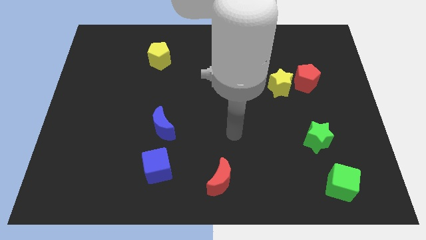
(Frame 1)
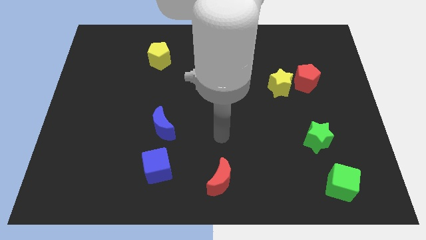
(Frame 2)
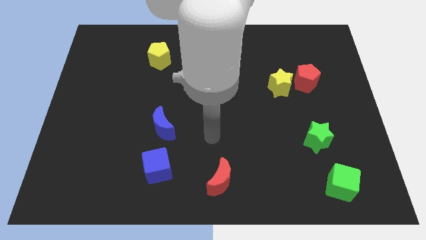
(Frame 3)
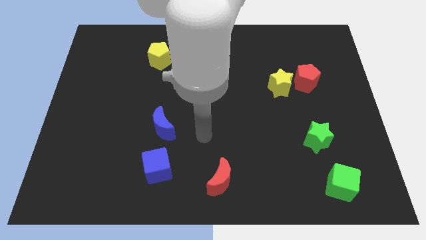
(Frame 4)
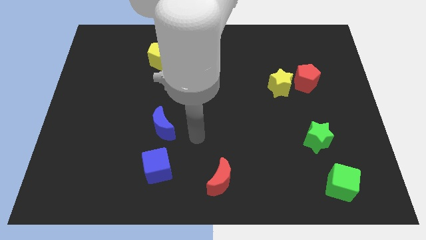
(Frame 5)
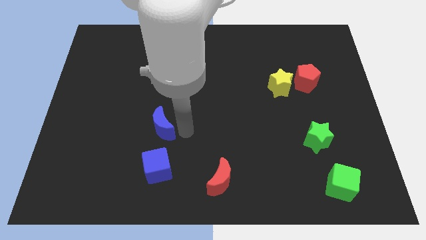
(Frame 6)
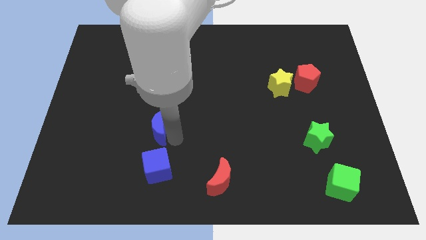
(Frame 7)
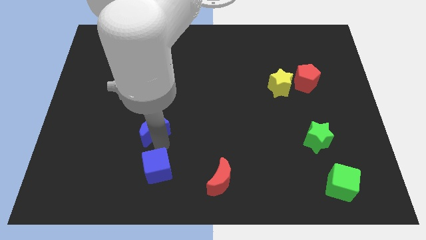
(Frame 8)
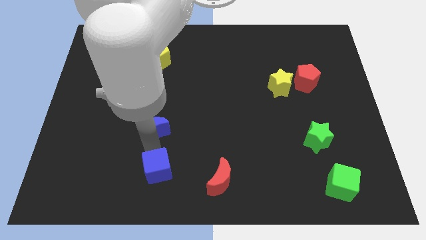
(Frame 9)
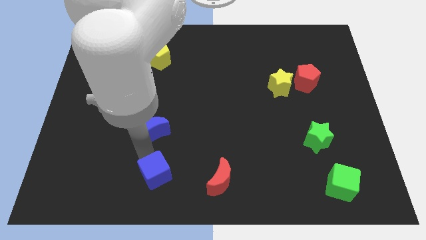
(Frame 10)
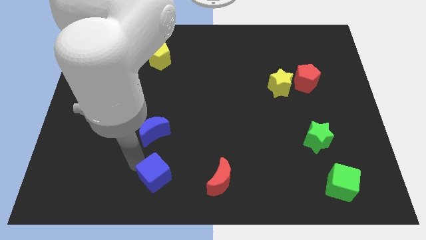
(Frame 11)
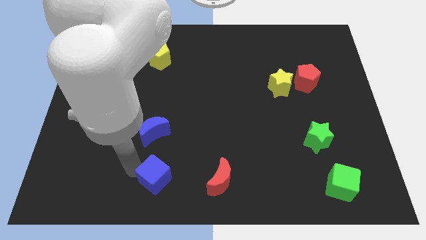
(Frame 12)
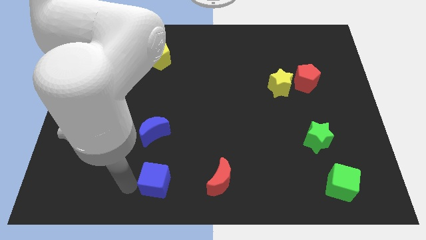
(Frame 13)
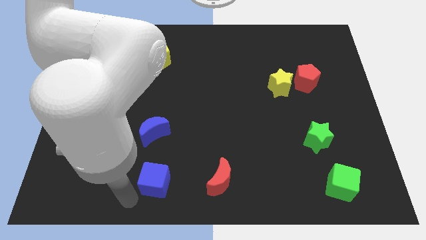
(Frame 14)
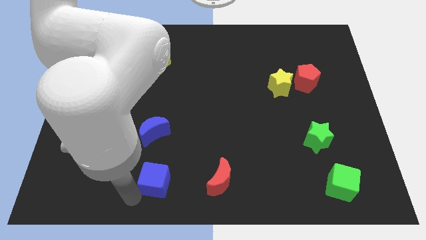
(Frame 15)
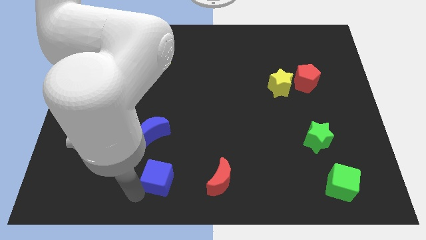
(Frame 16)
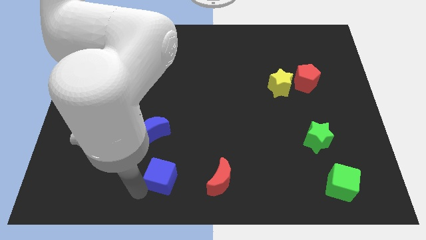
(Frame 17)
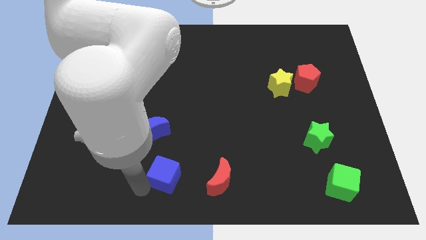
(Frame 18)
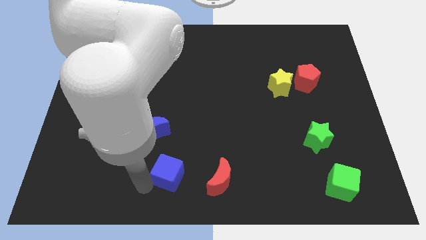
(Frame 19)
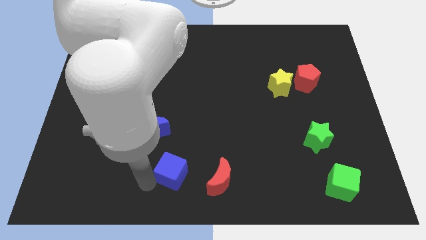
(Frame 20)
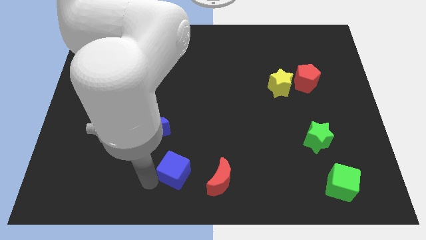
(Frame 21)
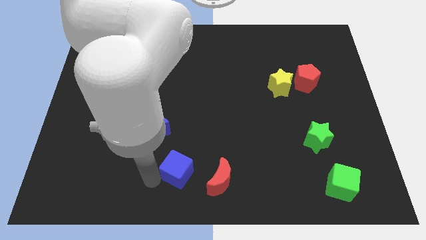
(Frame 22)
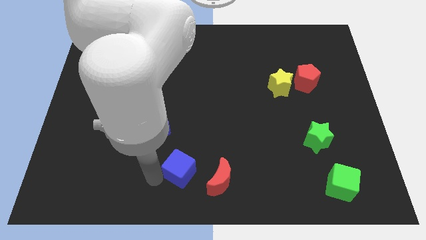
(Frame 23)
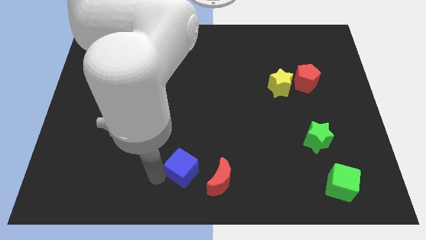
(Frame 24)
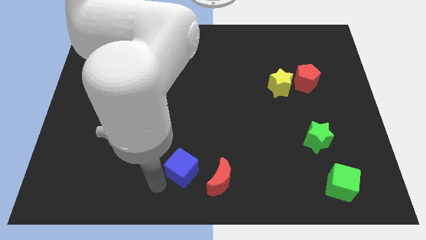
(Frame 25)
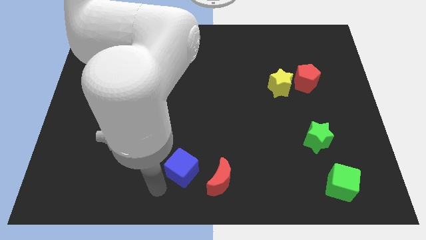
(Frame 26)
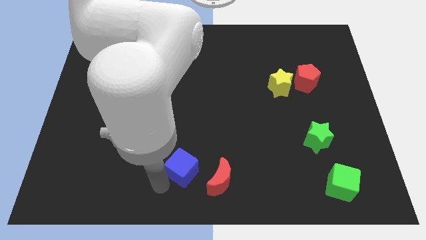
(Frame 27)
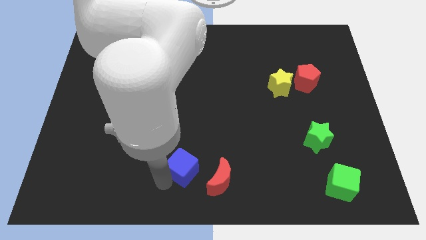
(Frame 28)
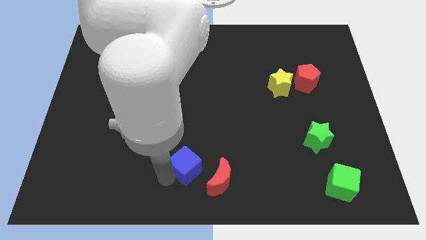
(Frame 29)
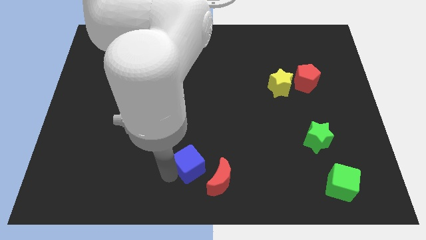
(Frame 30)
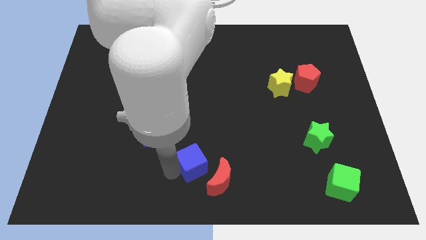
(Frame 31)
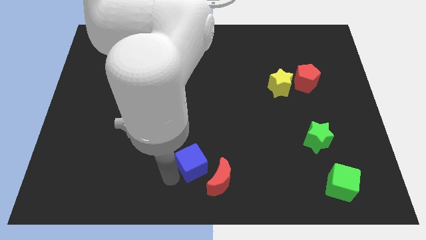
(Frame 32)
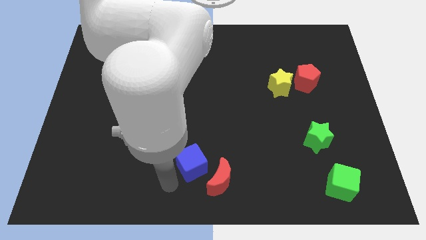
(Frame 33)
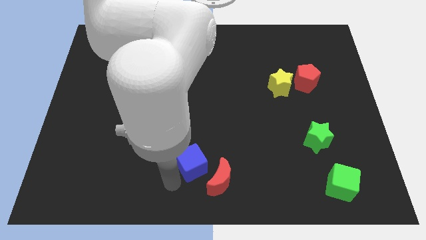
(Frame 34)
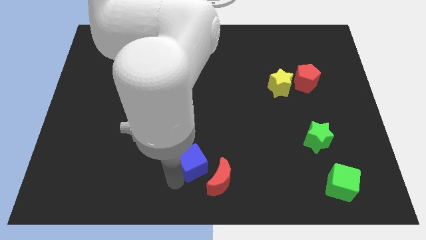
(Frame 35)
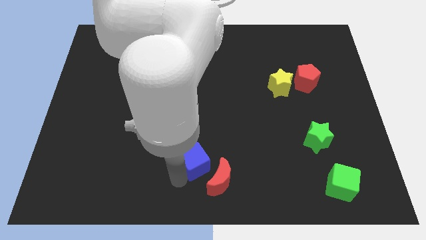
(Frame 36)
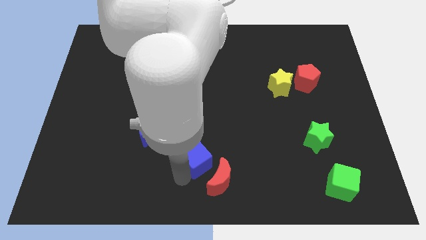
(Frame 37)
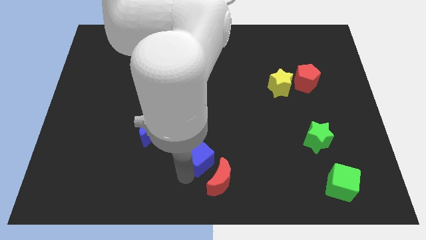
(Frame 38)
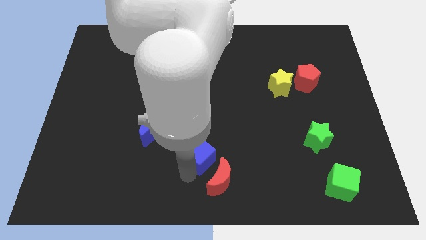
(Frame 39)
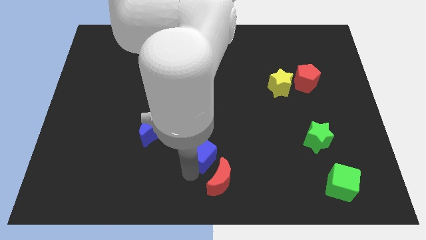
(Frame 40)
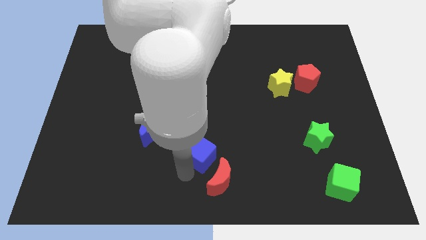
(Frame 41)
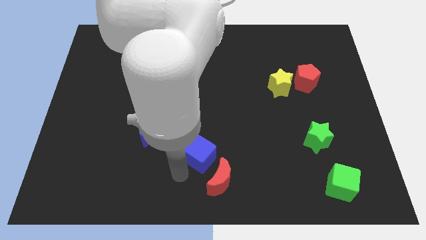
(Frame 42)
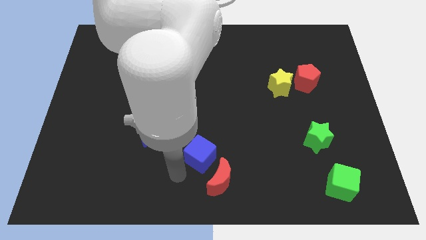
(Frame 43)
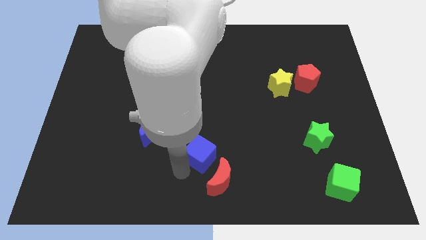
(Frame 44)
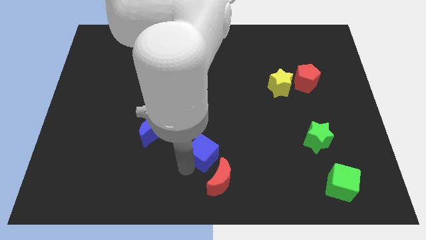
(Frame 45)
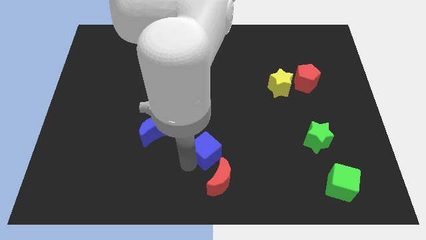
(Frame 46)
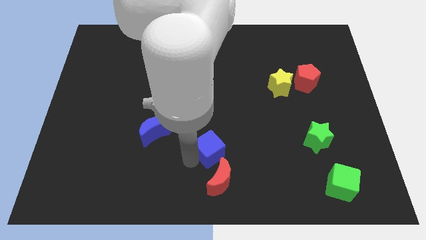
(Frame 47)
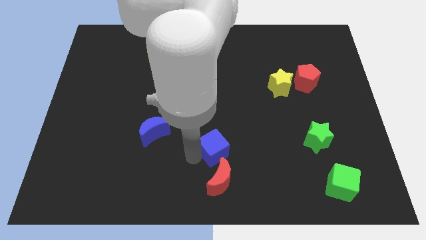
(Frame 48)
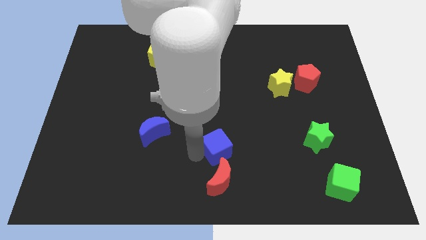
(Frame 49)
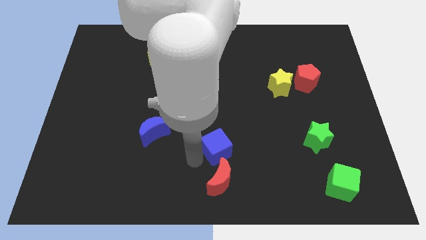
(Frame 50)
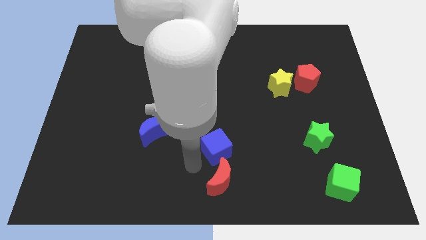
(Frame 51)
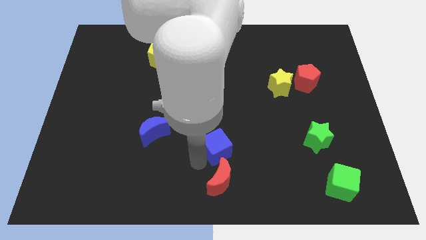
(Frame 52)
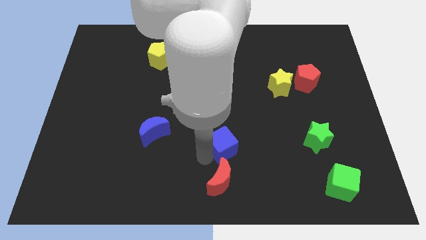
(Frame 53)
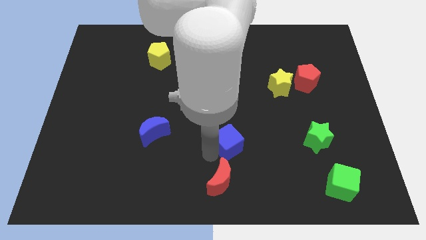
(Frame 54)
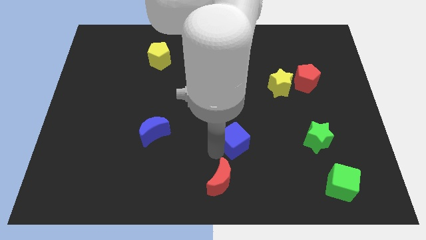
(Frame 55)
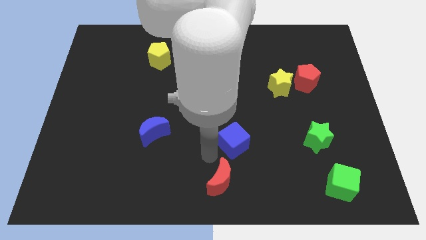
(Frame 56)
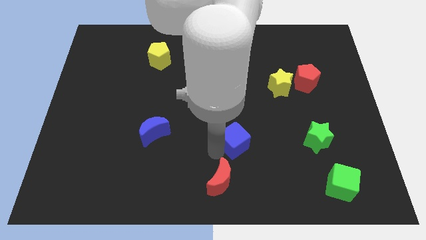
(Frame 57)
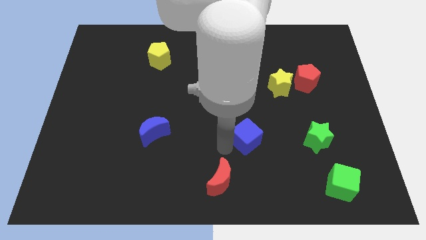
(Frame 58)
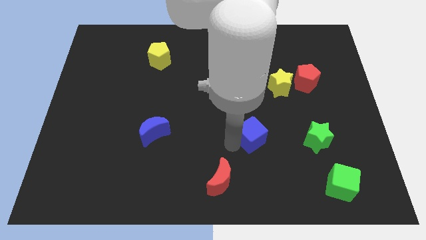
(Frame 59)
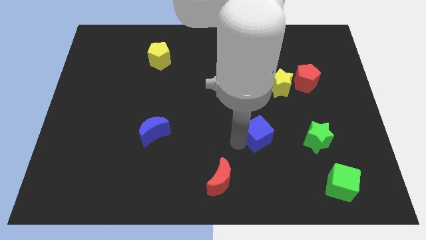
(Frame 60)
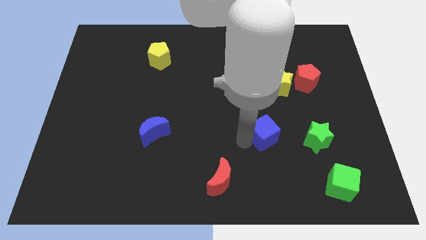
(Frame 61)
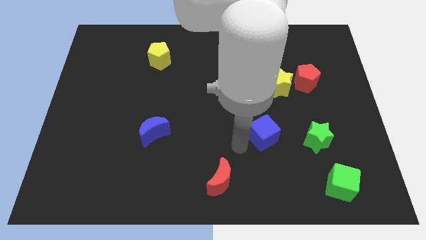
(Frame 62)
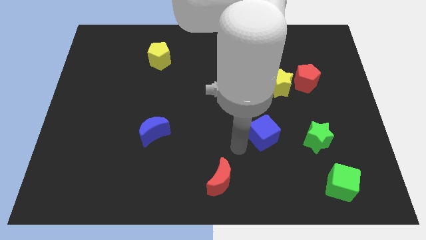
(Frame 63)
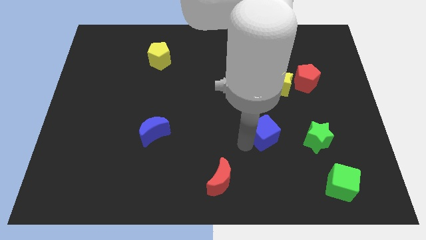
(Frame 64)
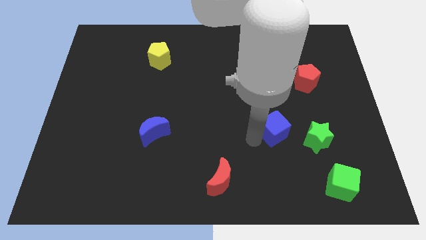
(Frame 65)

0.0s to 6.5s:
put the blue cube to the top left side of the green star
